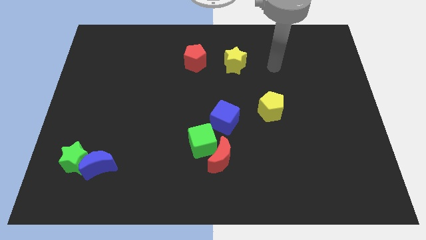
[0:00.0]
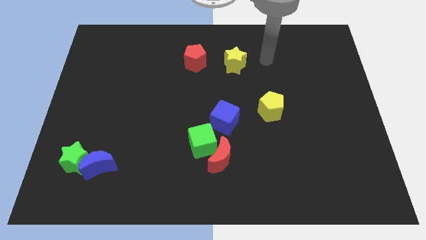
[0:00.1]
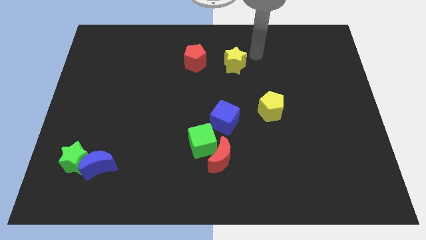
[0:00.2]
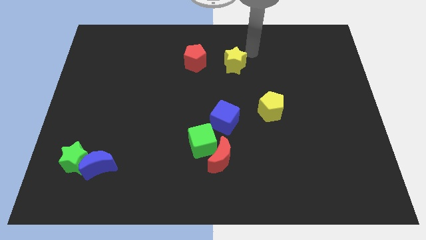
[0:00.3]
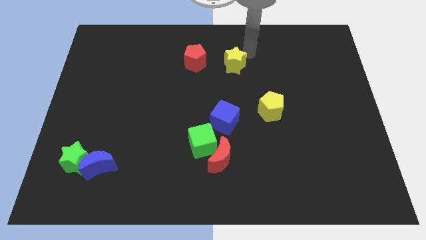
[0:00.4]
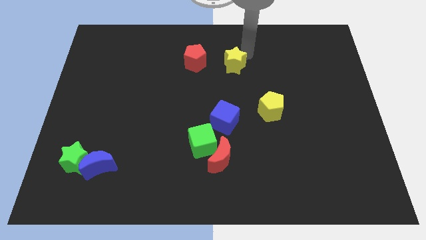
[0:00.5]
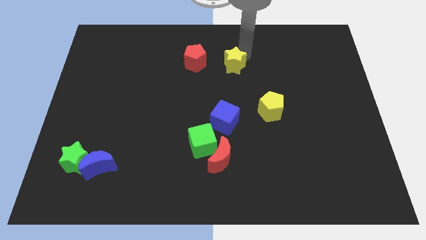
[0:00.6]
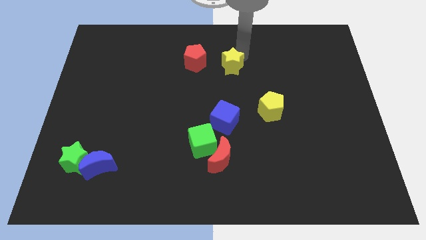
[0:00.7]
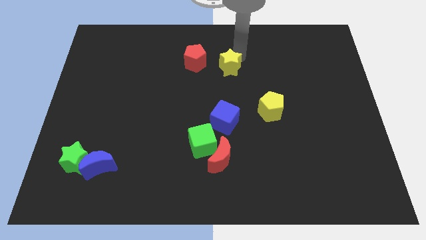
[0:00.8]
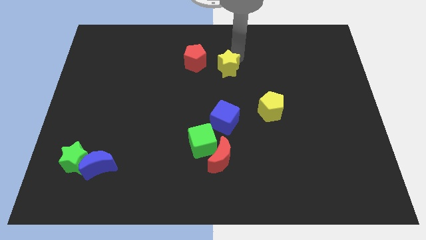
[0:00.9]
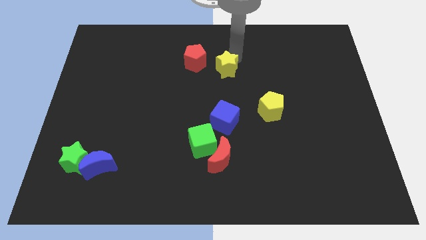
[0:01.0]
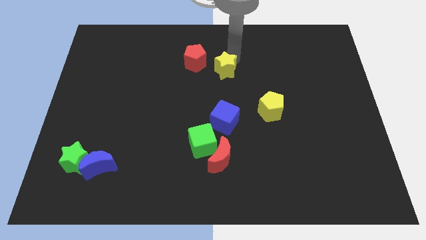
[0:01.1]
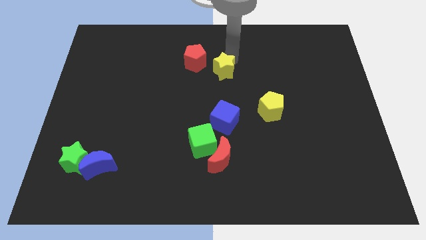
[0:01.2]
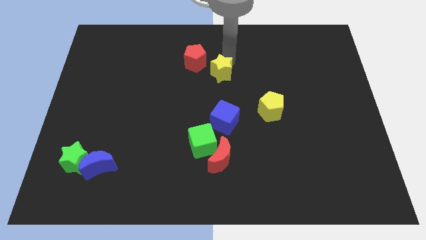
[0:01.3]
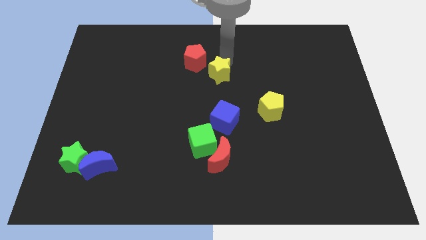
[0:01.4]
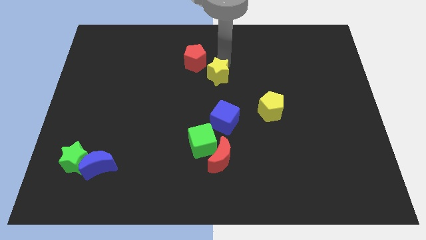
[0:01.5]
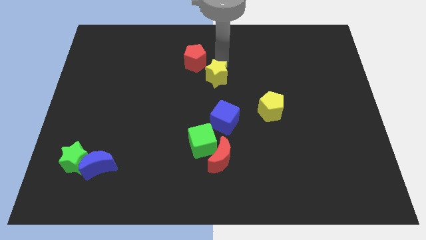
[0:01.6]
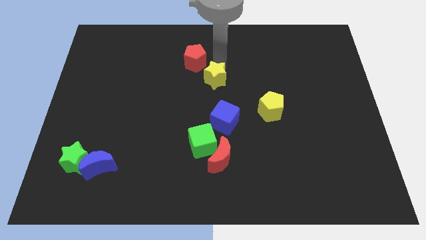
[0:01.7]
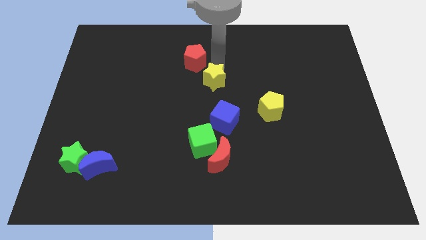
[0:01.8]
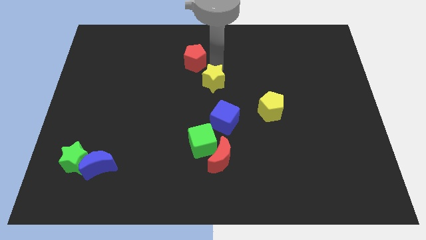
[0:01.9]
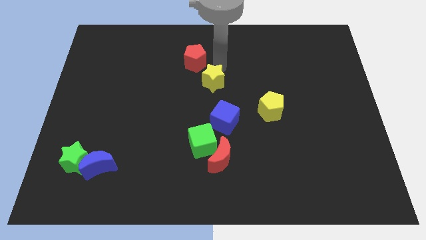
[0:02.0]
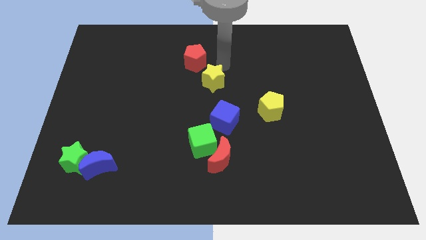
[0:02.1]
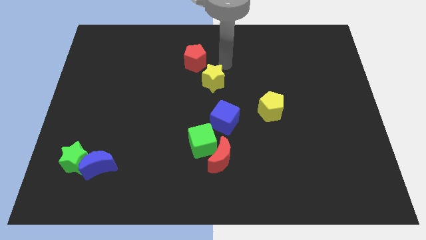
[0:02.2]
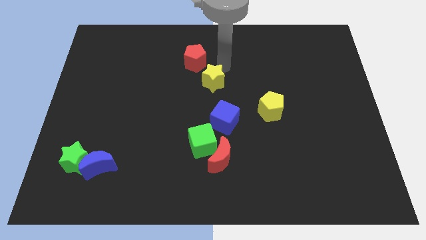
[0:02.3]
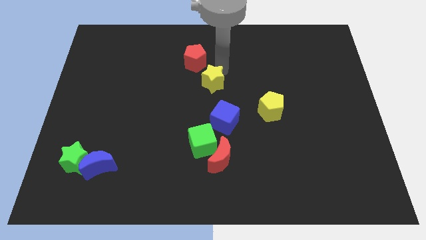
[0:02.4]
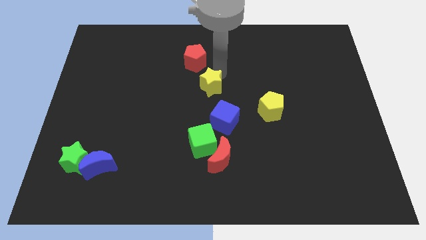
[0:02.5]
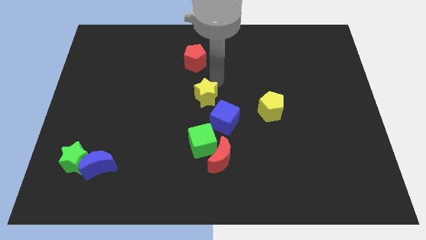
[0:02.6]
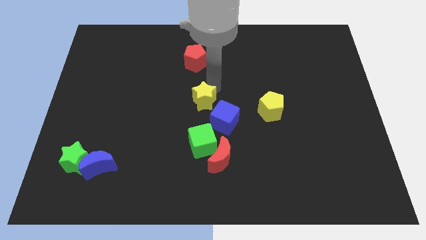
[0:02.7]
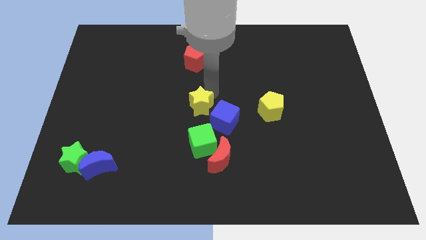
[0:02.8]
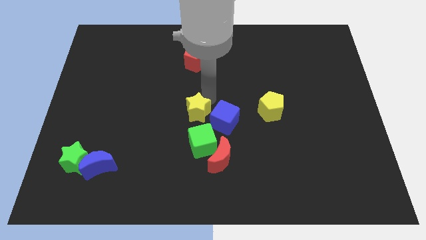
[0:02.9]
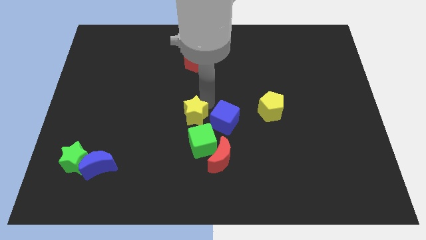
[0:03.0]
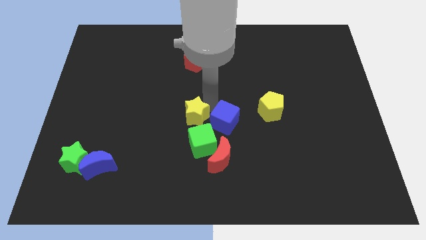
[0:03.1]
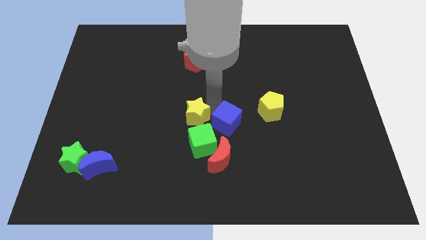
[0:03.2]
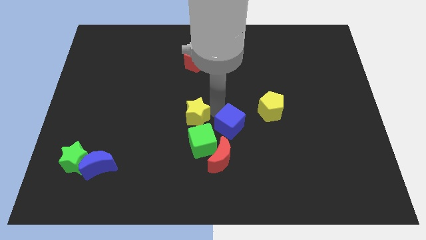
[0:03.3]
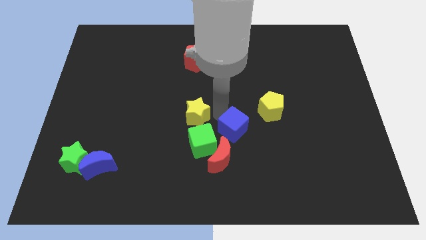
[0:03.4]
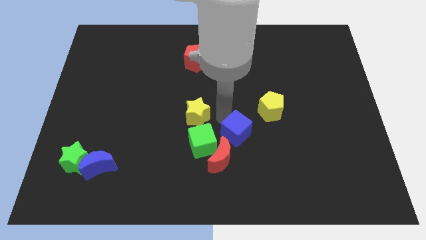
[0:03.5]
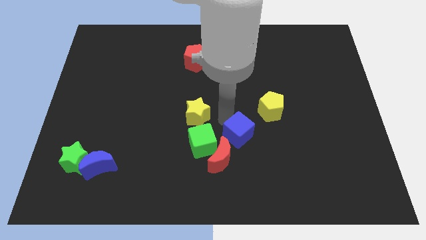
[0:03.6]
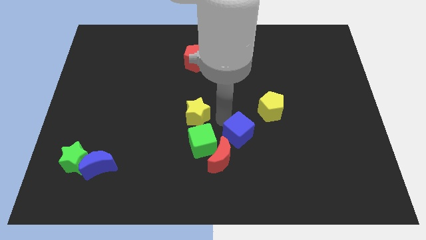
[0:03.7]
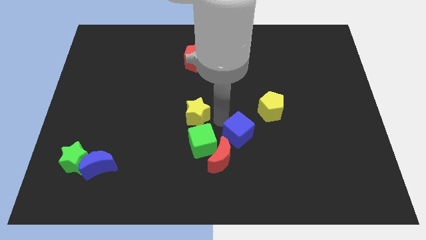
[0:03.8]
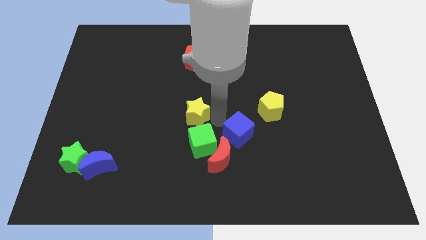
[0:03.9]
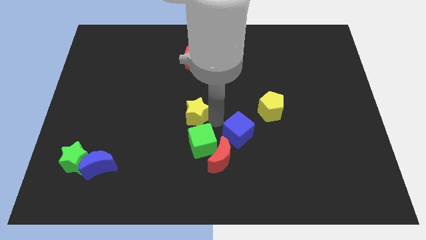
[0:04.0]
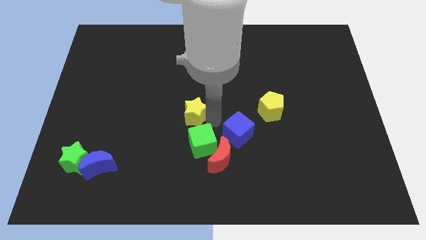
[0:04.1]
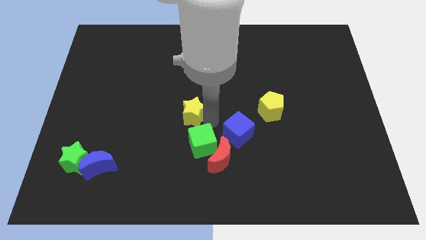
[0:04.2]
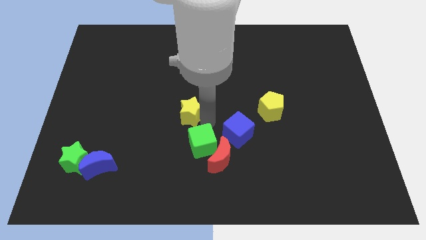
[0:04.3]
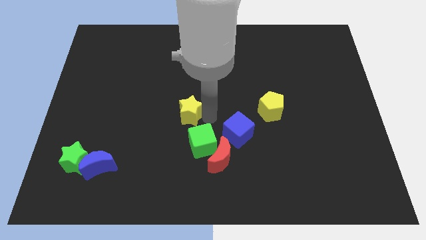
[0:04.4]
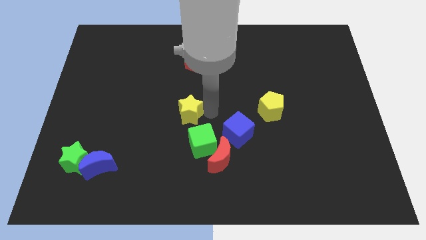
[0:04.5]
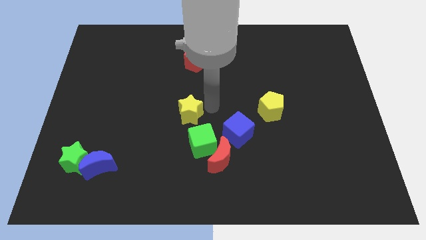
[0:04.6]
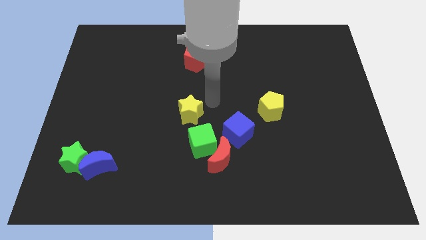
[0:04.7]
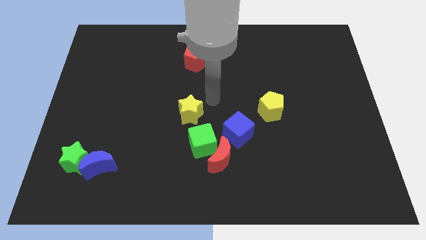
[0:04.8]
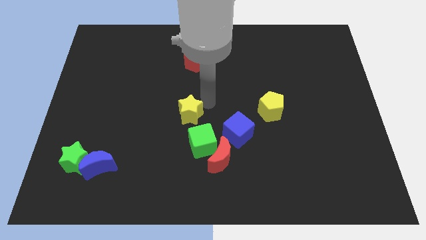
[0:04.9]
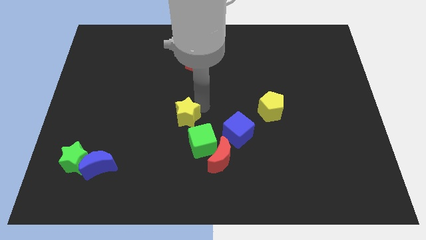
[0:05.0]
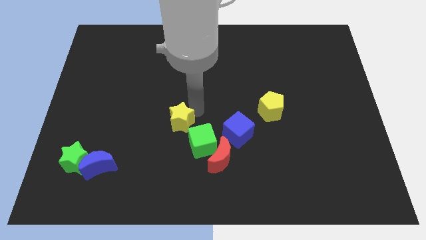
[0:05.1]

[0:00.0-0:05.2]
push the yellow star down and left diagonally

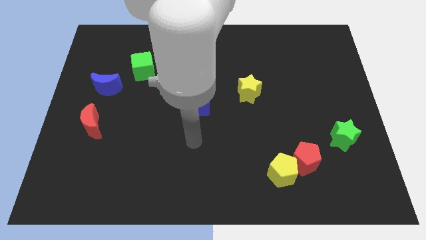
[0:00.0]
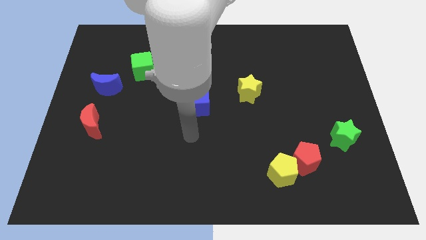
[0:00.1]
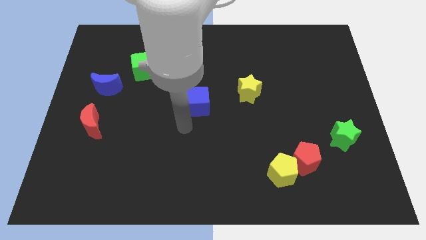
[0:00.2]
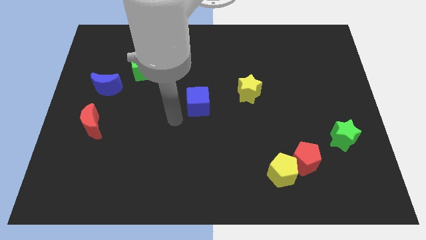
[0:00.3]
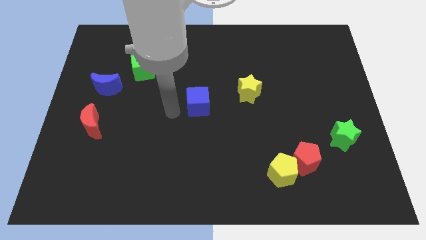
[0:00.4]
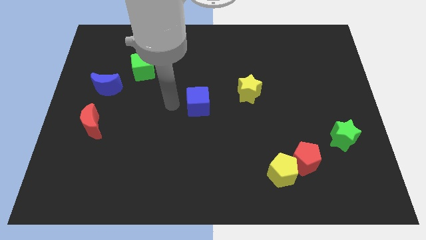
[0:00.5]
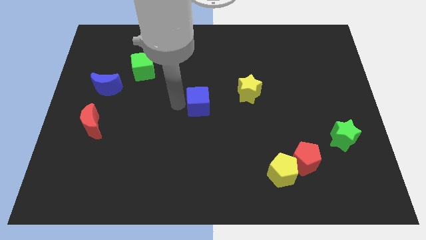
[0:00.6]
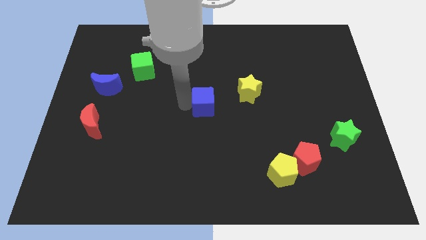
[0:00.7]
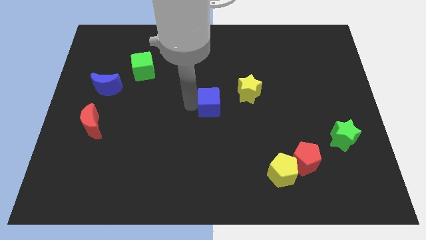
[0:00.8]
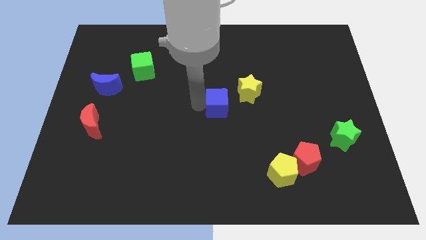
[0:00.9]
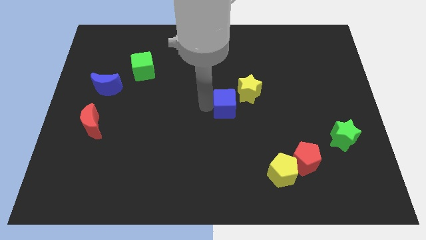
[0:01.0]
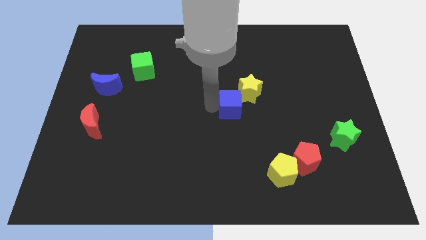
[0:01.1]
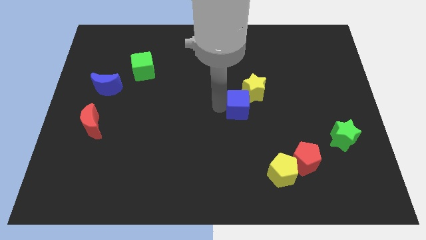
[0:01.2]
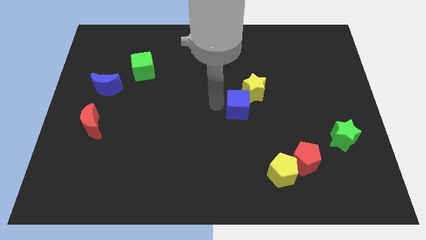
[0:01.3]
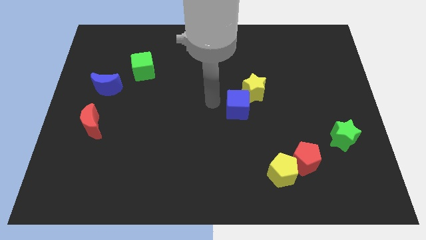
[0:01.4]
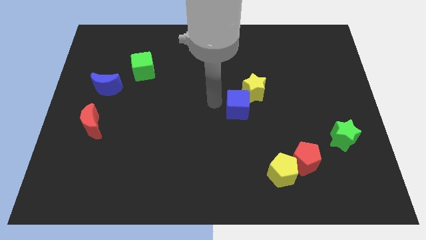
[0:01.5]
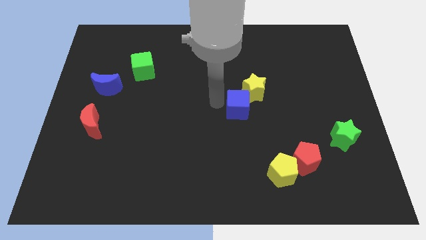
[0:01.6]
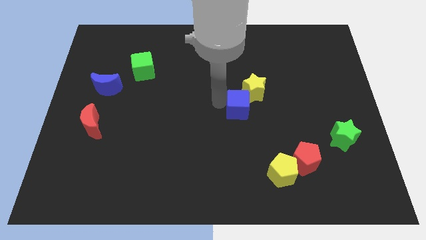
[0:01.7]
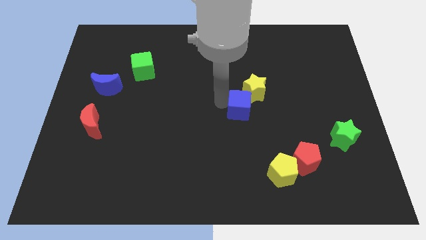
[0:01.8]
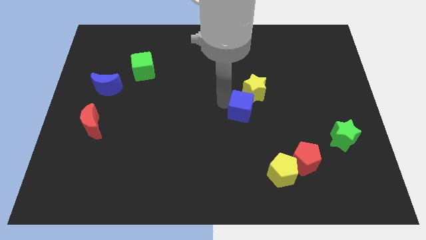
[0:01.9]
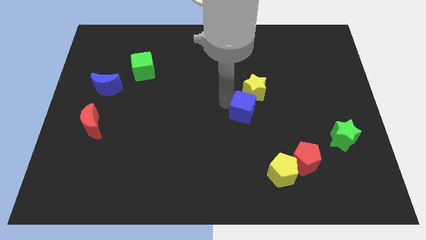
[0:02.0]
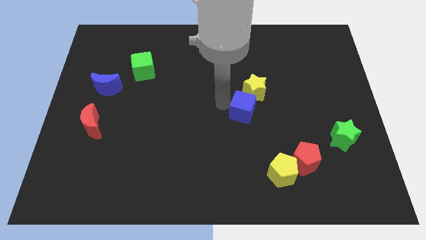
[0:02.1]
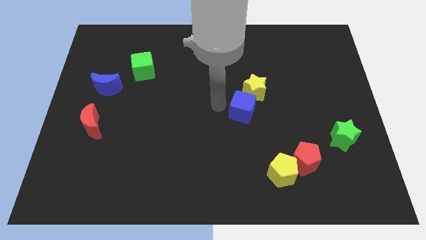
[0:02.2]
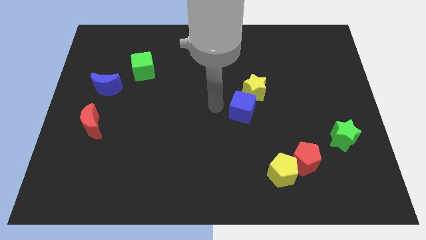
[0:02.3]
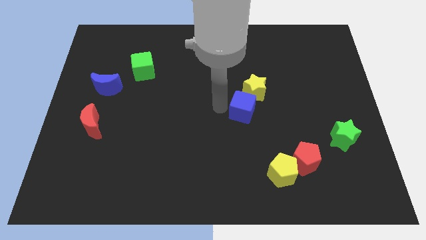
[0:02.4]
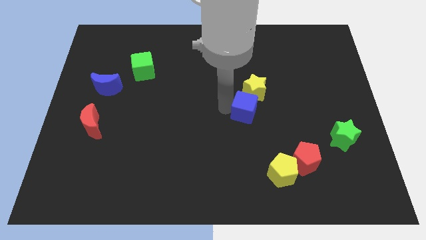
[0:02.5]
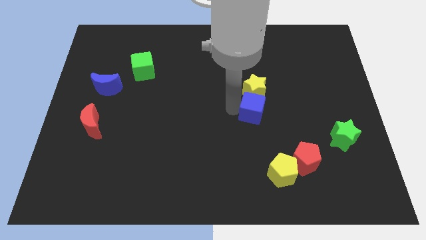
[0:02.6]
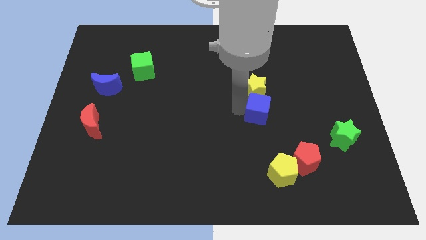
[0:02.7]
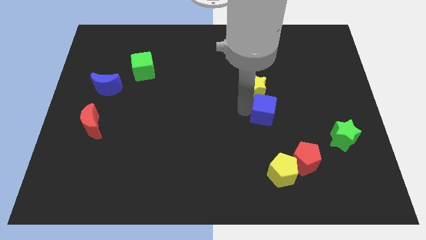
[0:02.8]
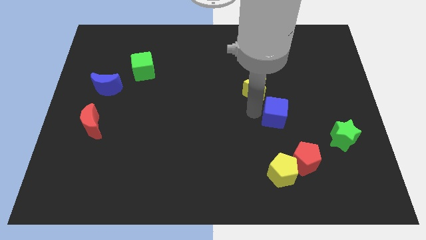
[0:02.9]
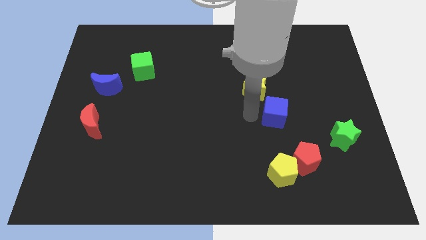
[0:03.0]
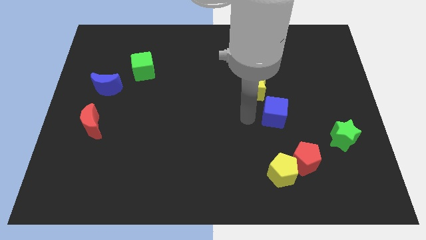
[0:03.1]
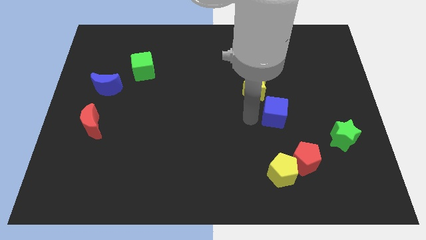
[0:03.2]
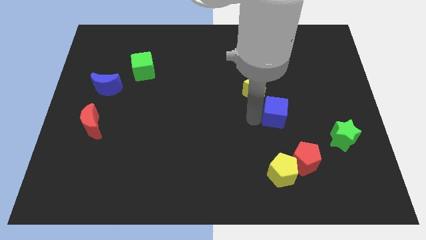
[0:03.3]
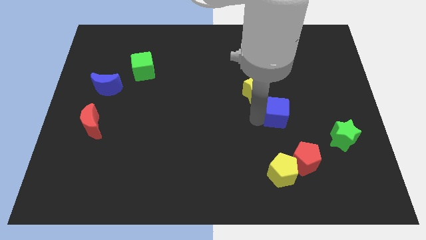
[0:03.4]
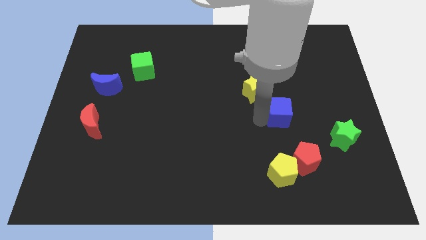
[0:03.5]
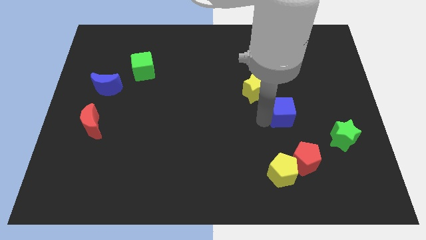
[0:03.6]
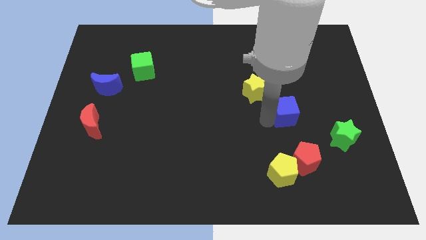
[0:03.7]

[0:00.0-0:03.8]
slide the blue cube to the right
